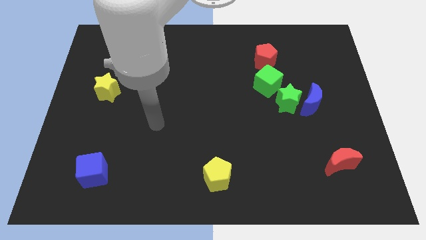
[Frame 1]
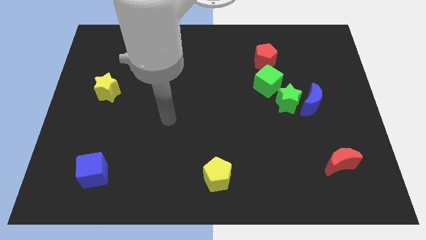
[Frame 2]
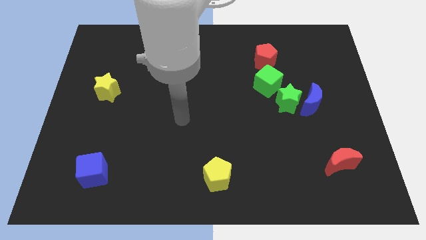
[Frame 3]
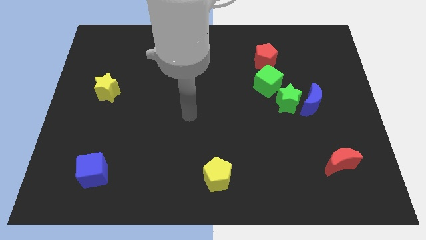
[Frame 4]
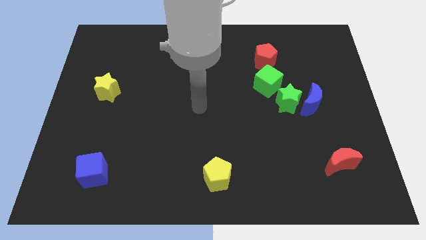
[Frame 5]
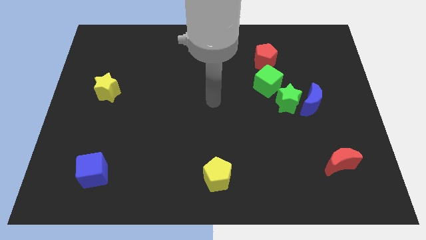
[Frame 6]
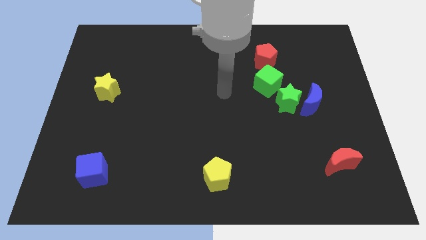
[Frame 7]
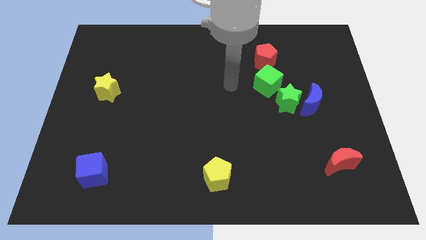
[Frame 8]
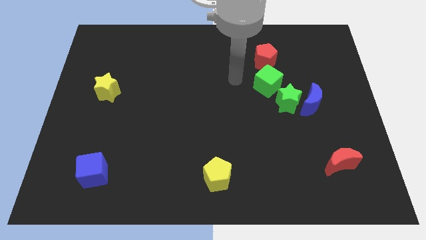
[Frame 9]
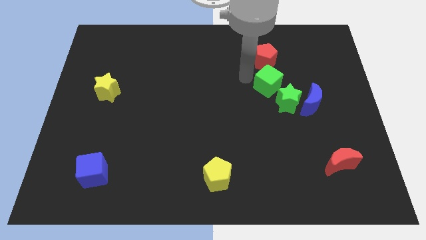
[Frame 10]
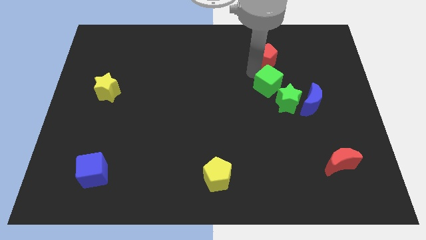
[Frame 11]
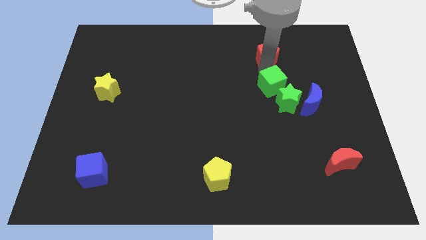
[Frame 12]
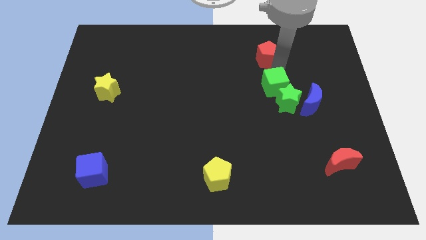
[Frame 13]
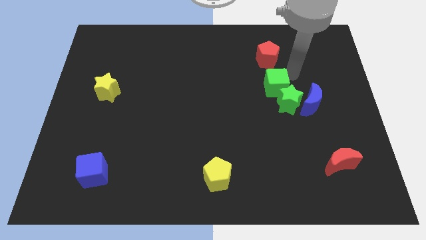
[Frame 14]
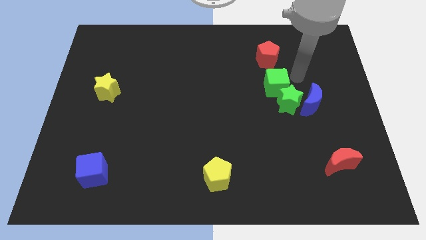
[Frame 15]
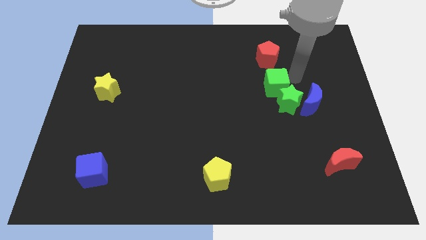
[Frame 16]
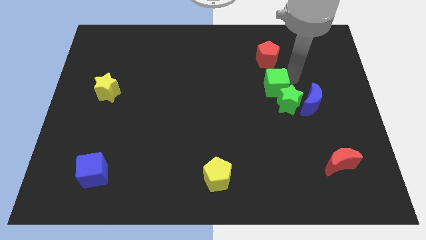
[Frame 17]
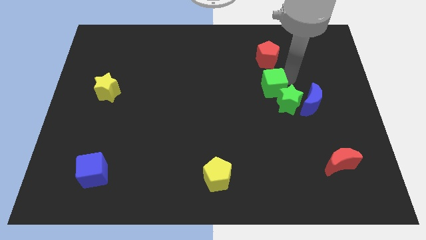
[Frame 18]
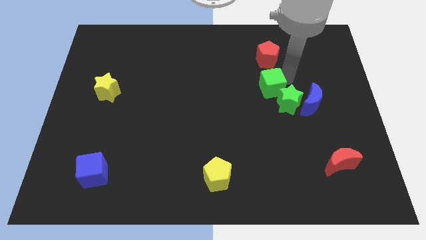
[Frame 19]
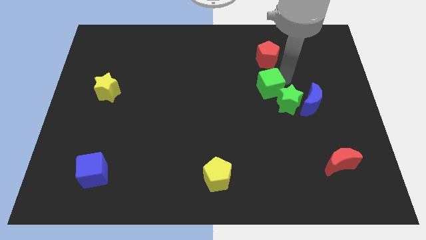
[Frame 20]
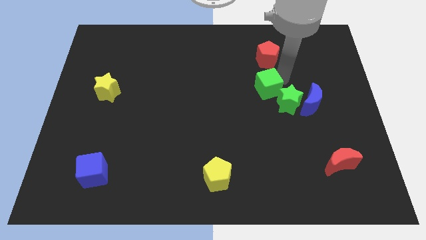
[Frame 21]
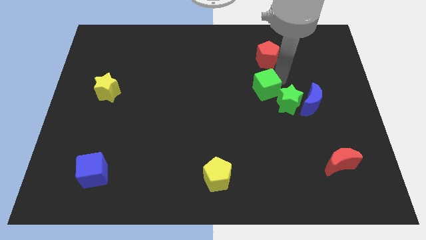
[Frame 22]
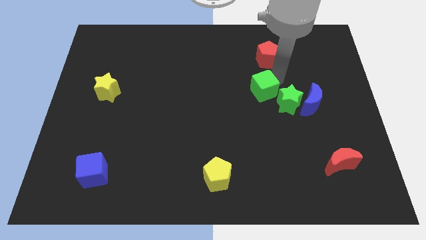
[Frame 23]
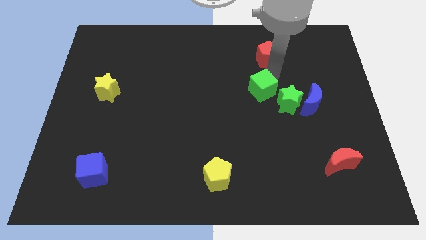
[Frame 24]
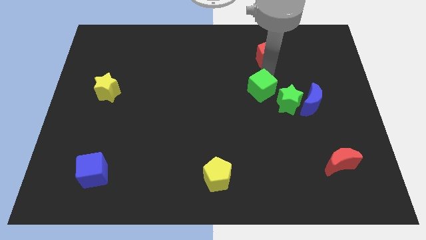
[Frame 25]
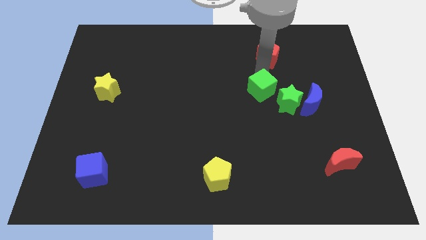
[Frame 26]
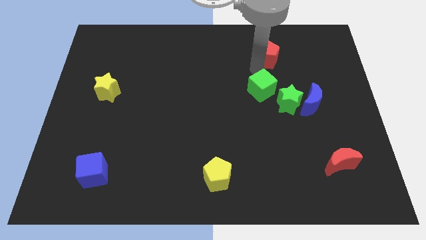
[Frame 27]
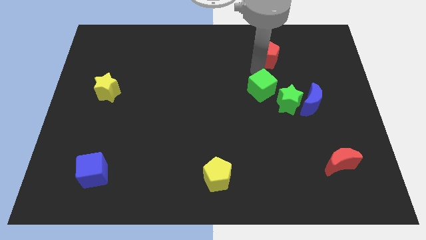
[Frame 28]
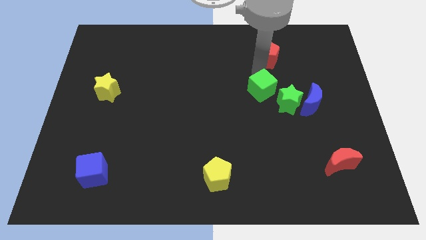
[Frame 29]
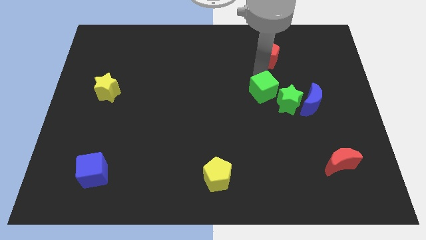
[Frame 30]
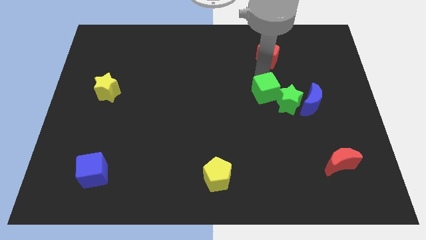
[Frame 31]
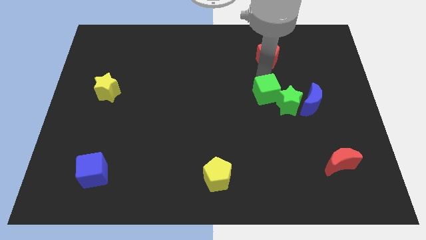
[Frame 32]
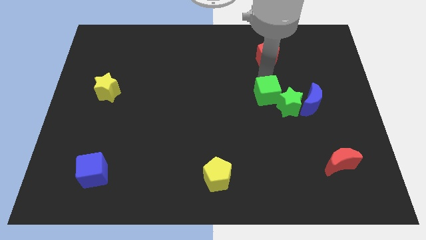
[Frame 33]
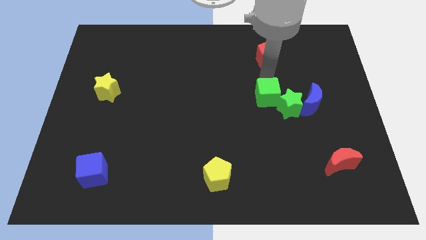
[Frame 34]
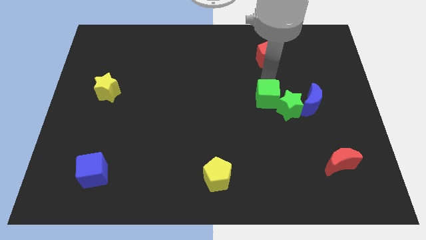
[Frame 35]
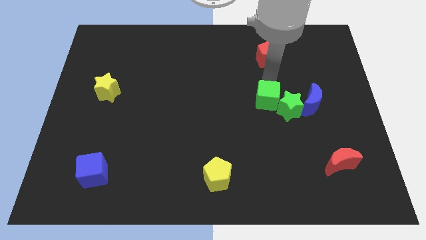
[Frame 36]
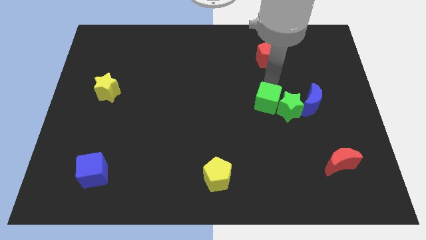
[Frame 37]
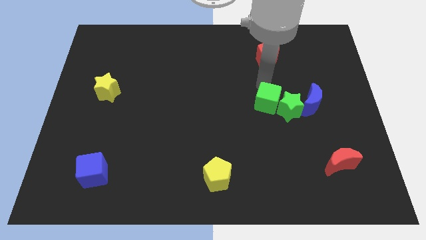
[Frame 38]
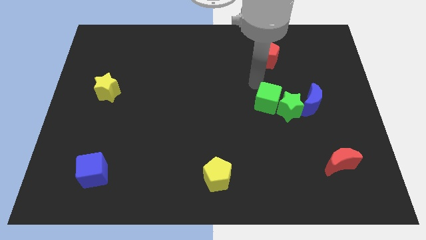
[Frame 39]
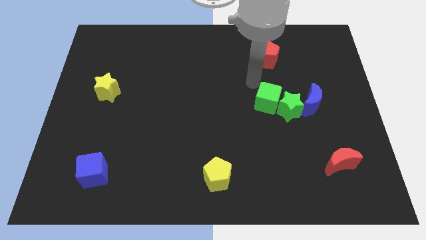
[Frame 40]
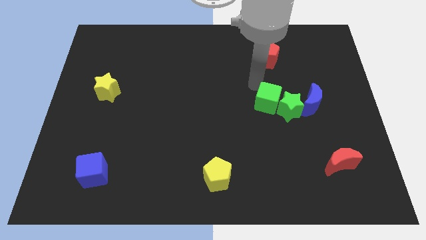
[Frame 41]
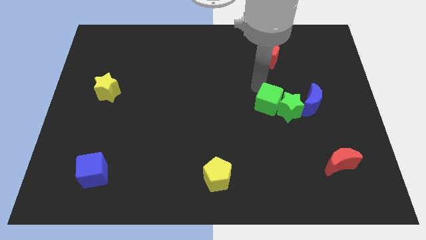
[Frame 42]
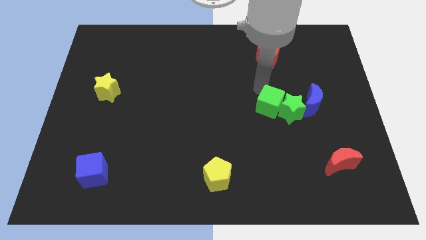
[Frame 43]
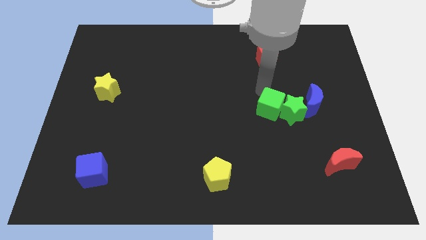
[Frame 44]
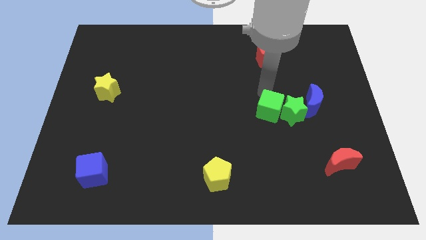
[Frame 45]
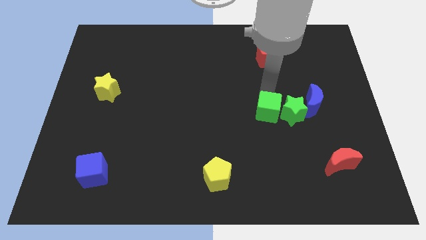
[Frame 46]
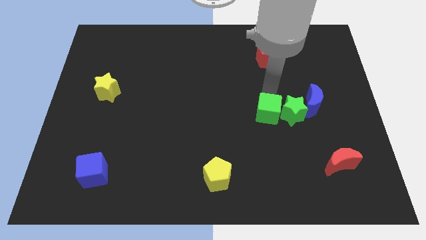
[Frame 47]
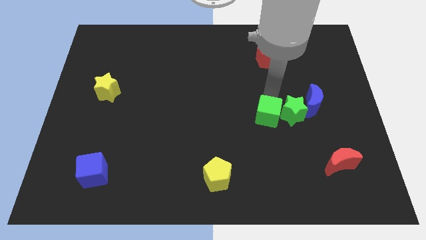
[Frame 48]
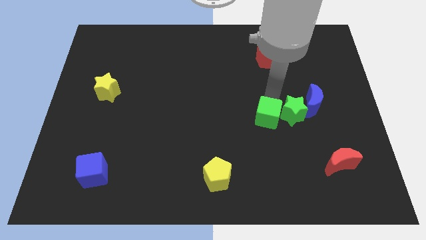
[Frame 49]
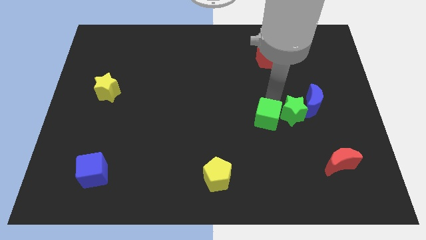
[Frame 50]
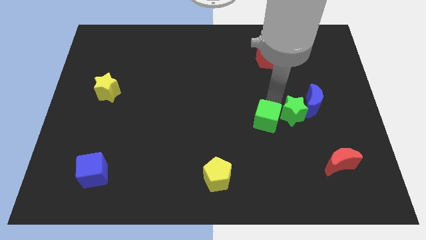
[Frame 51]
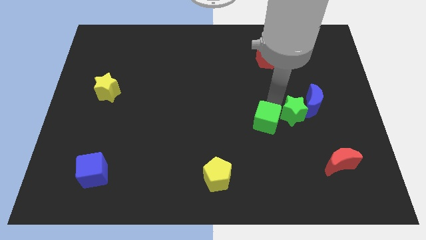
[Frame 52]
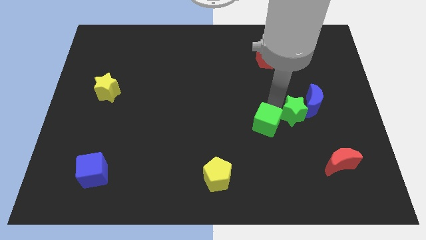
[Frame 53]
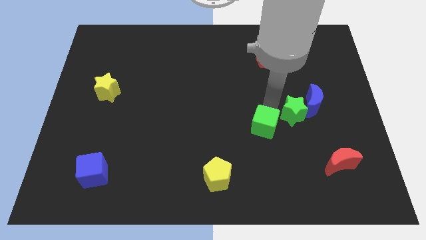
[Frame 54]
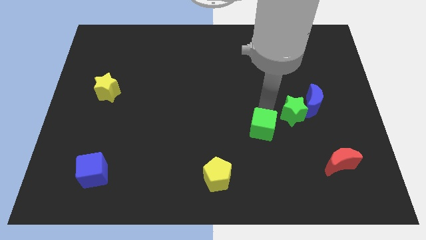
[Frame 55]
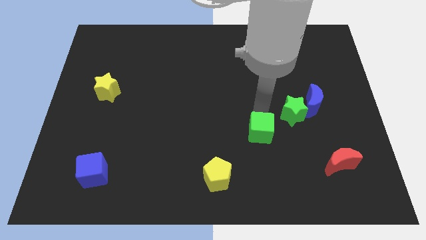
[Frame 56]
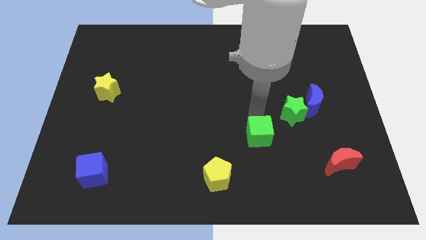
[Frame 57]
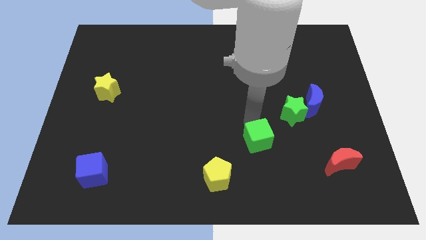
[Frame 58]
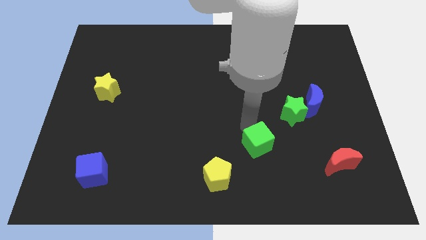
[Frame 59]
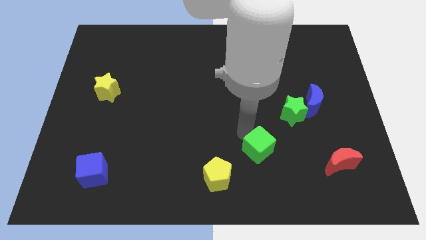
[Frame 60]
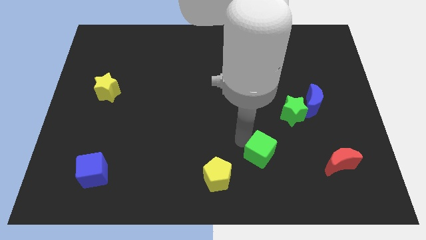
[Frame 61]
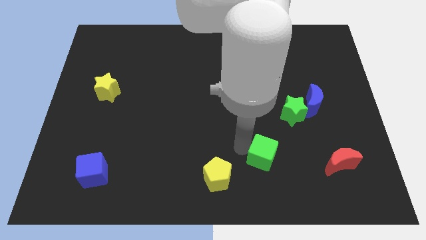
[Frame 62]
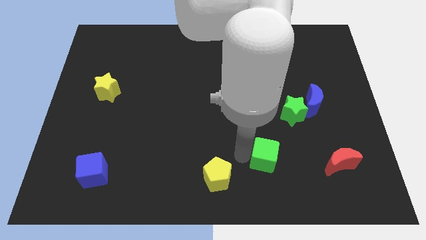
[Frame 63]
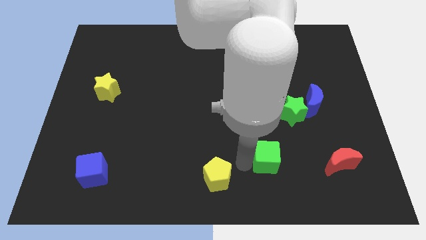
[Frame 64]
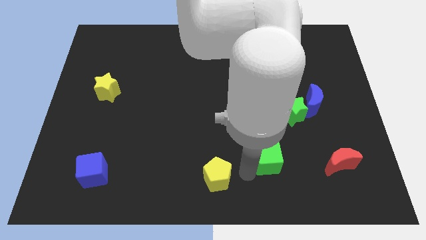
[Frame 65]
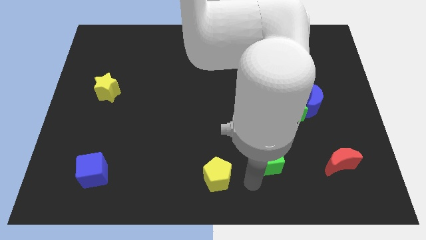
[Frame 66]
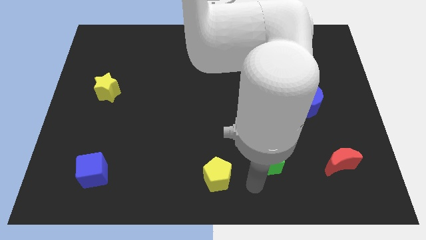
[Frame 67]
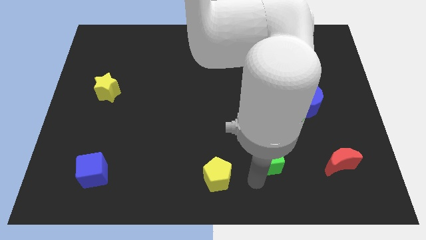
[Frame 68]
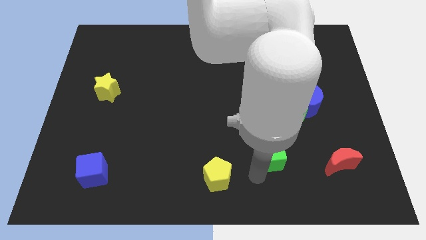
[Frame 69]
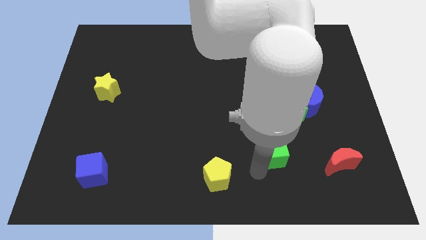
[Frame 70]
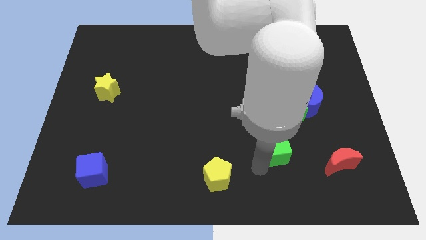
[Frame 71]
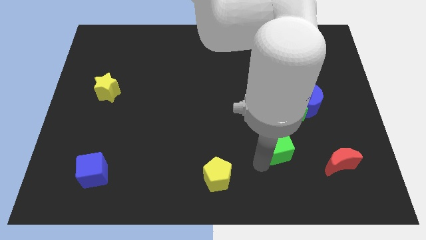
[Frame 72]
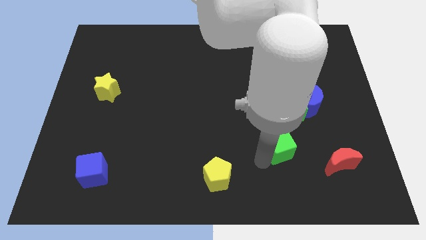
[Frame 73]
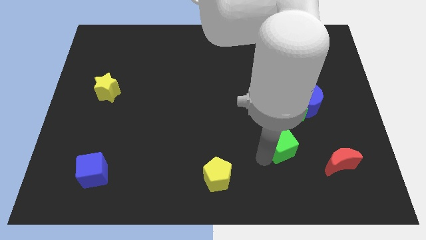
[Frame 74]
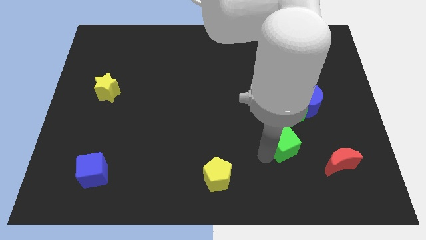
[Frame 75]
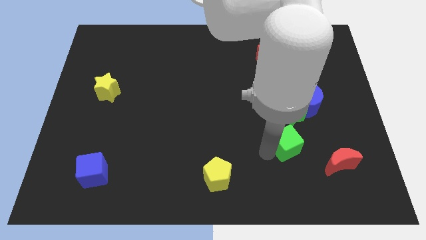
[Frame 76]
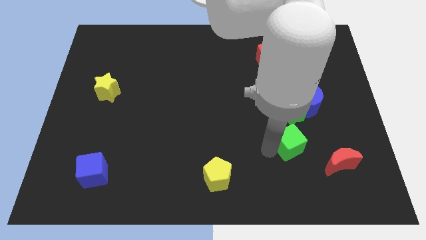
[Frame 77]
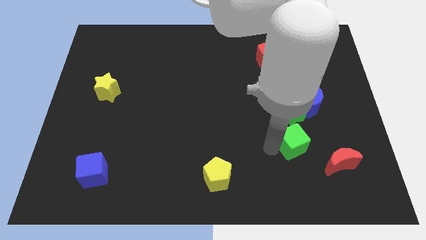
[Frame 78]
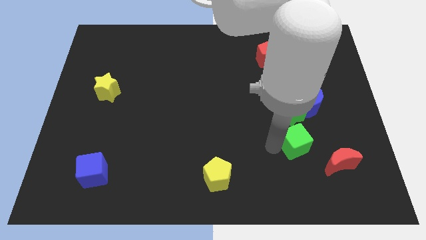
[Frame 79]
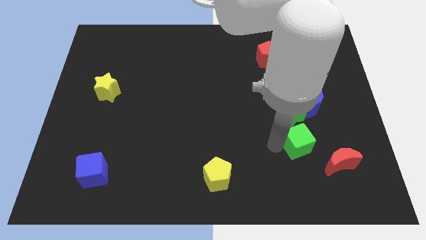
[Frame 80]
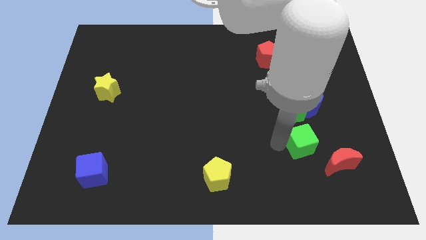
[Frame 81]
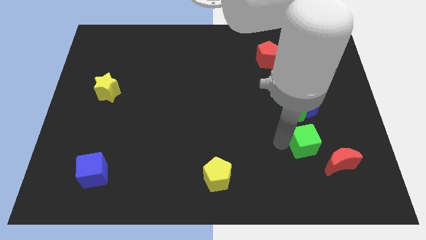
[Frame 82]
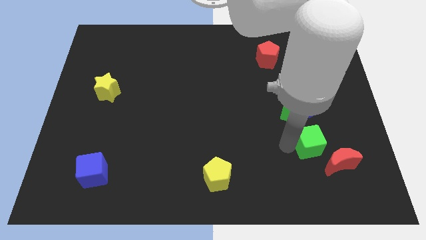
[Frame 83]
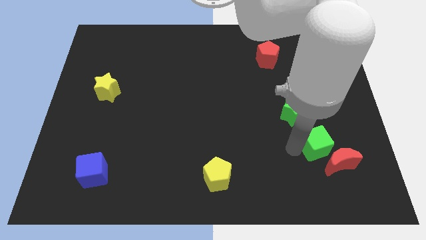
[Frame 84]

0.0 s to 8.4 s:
put the green cube to the red moon
